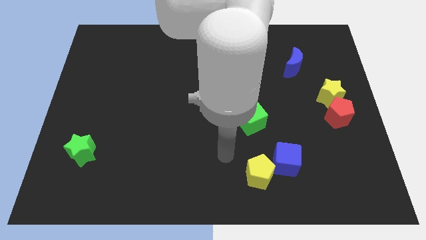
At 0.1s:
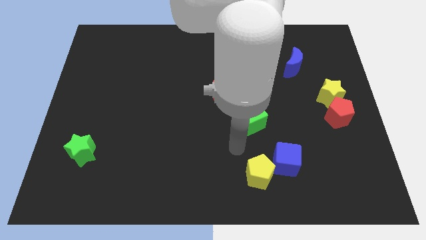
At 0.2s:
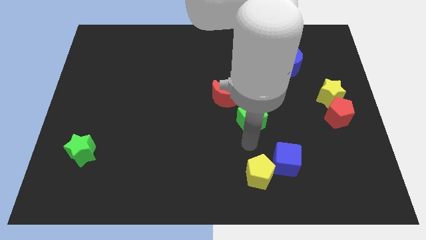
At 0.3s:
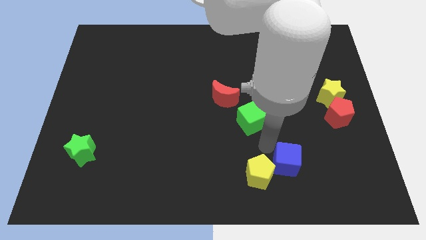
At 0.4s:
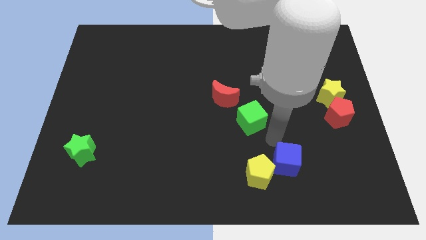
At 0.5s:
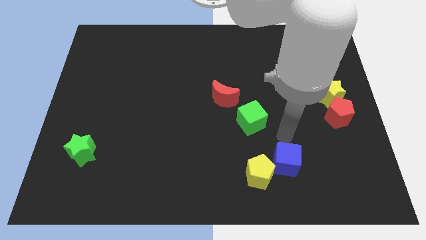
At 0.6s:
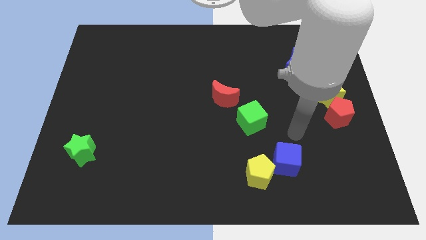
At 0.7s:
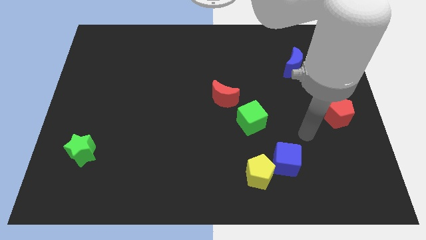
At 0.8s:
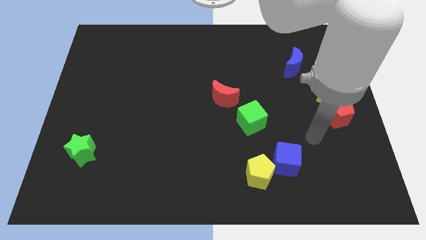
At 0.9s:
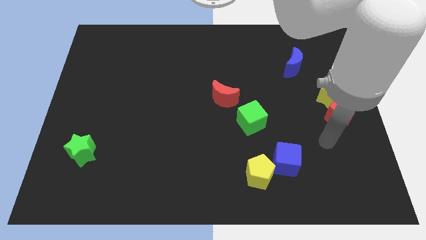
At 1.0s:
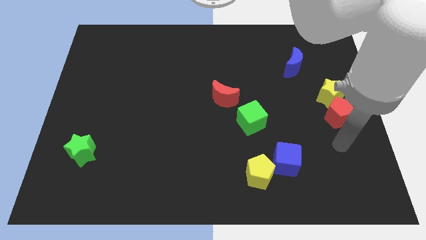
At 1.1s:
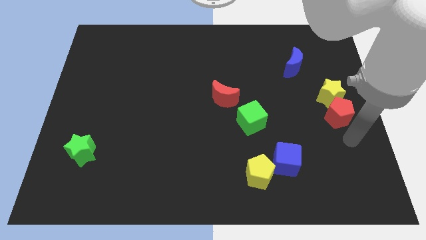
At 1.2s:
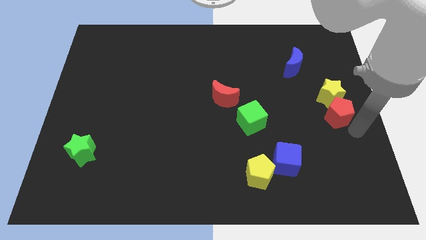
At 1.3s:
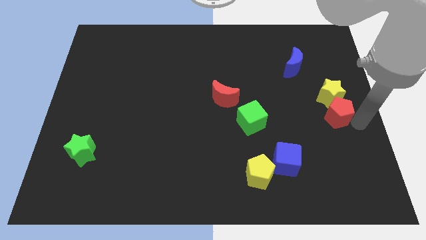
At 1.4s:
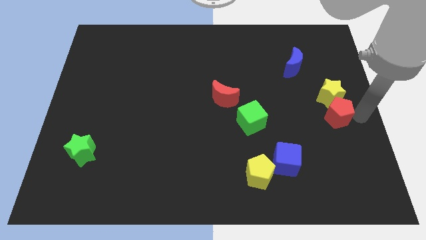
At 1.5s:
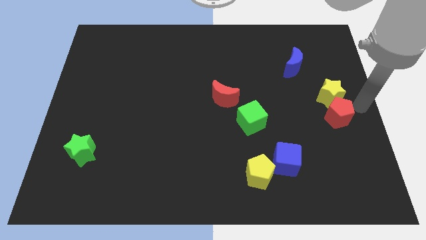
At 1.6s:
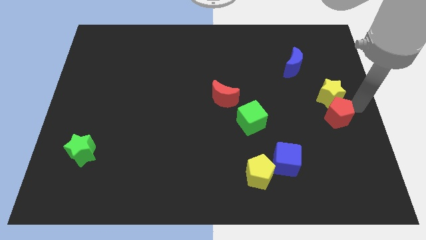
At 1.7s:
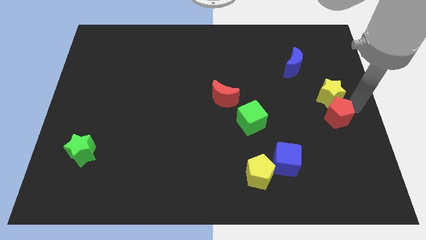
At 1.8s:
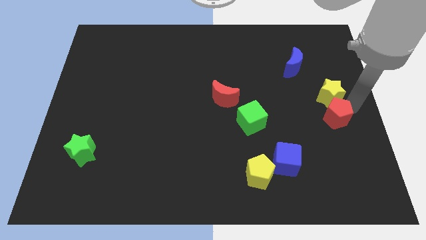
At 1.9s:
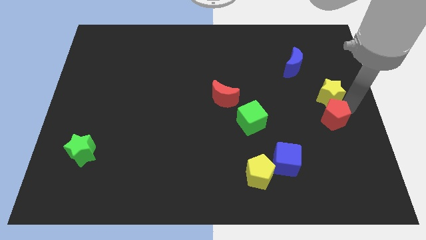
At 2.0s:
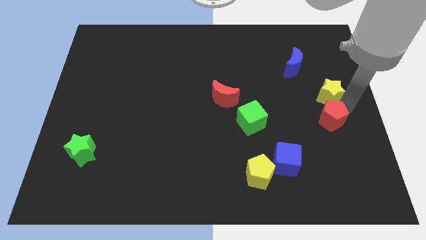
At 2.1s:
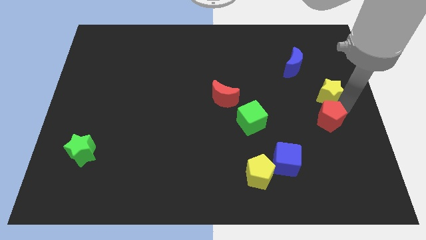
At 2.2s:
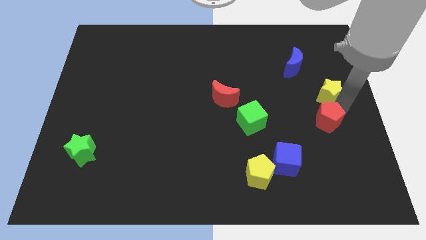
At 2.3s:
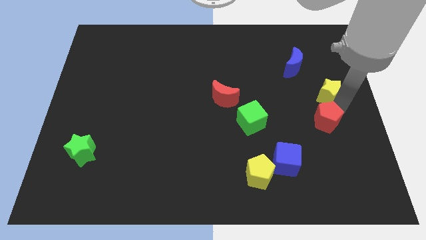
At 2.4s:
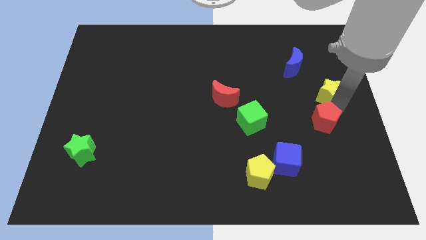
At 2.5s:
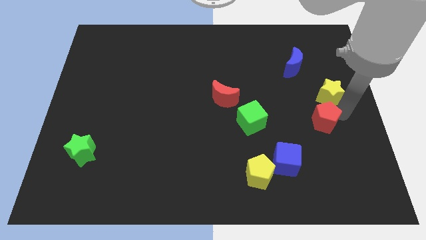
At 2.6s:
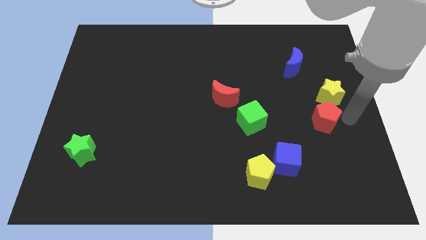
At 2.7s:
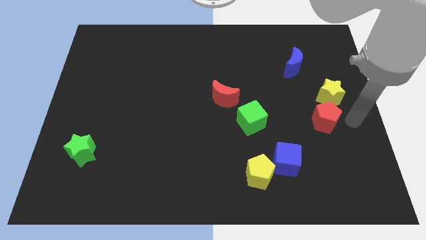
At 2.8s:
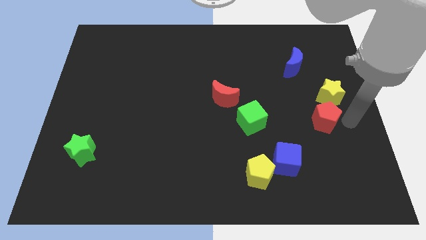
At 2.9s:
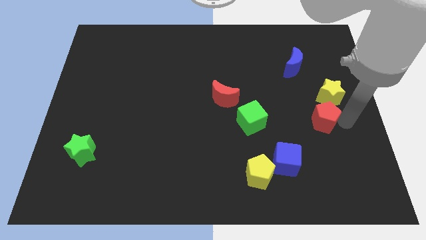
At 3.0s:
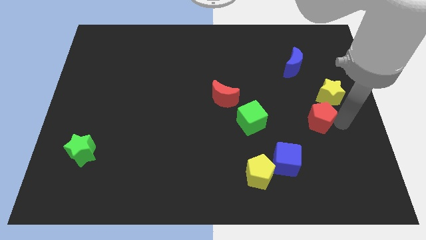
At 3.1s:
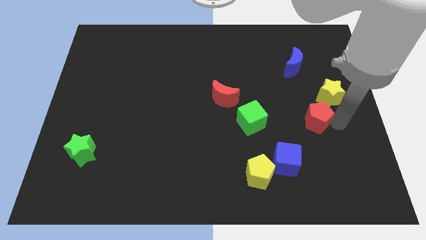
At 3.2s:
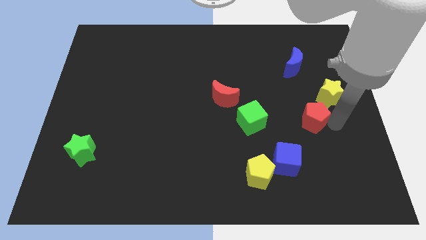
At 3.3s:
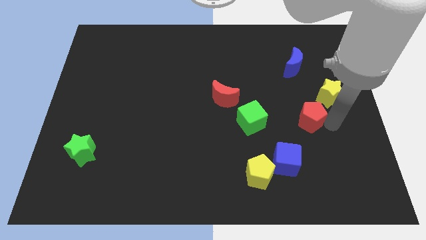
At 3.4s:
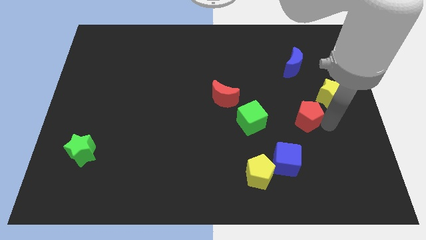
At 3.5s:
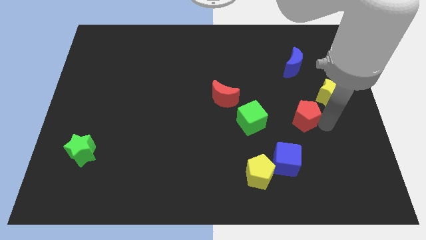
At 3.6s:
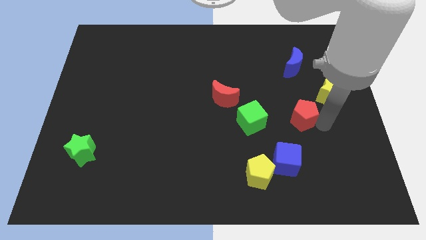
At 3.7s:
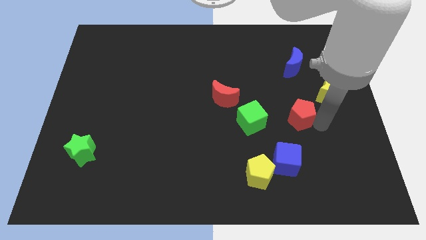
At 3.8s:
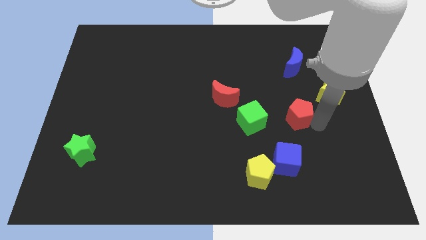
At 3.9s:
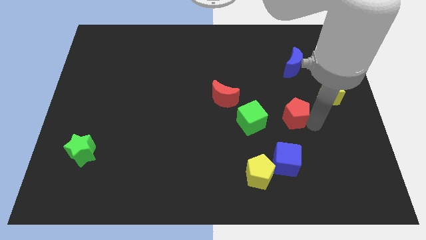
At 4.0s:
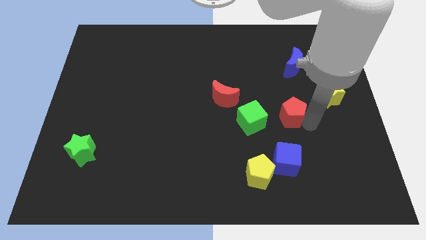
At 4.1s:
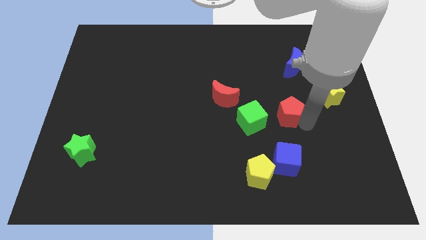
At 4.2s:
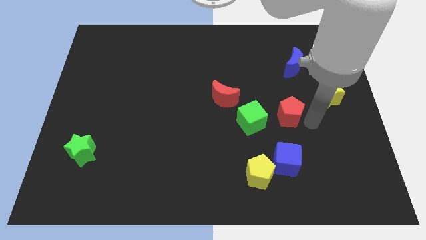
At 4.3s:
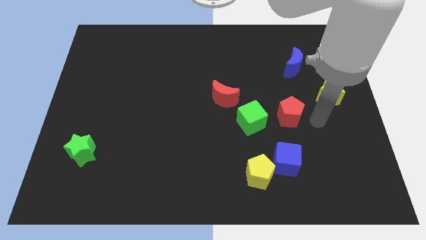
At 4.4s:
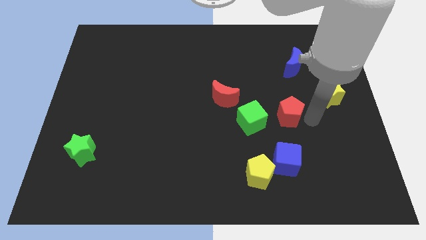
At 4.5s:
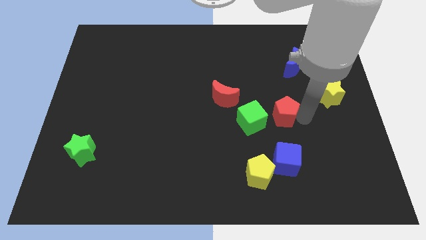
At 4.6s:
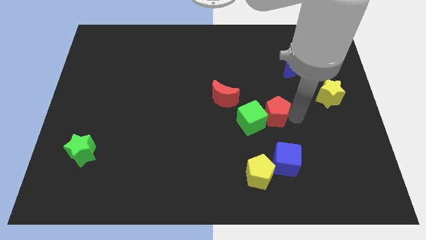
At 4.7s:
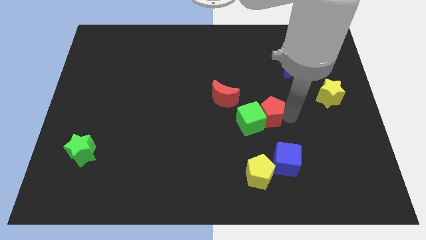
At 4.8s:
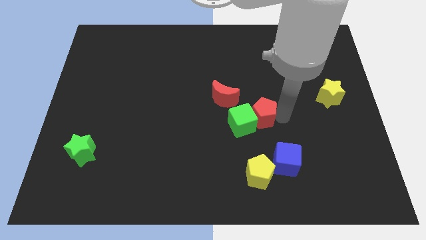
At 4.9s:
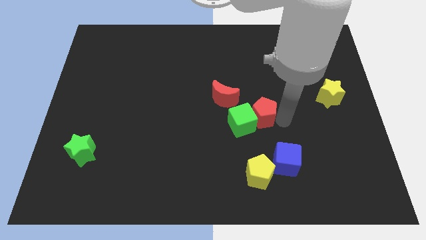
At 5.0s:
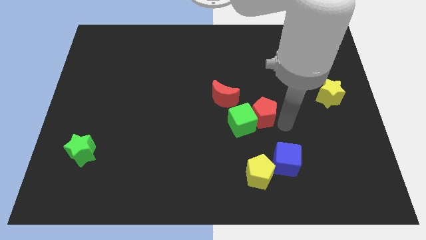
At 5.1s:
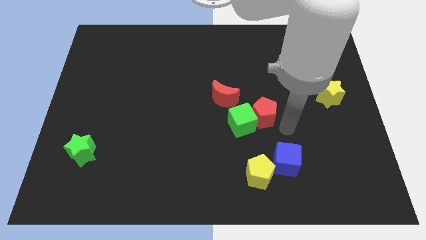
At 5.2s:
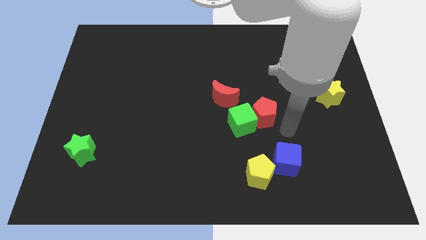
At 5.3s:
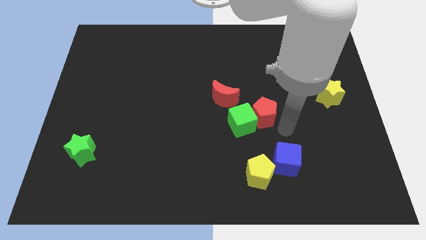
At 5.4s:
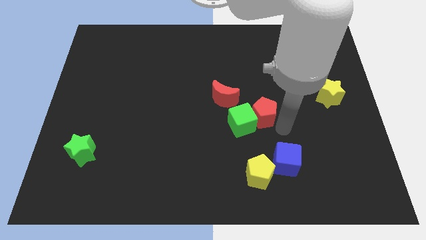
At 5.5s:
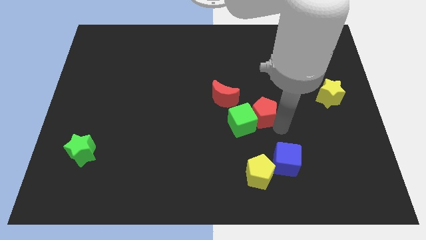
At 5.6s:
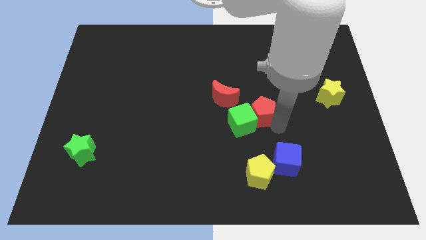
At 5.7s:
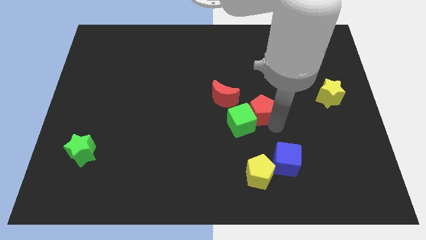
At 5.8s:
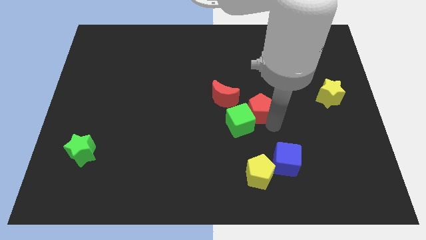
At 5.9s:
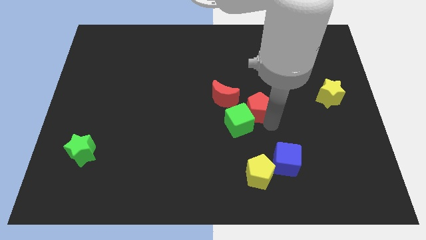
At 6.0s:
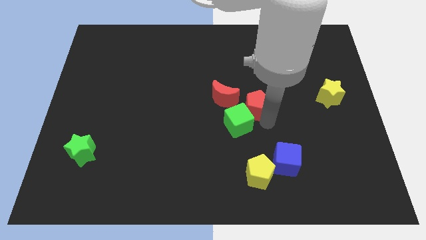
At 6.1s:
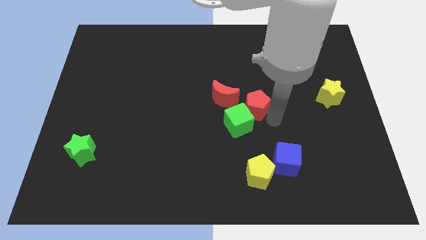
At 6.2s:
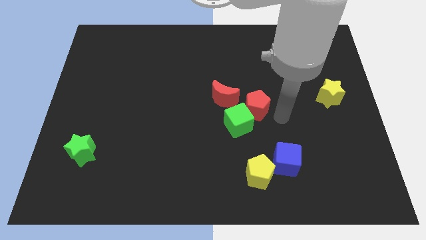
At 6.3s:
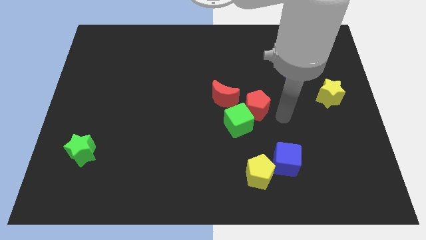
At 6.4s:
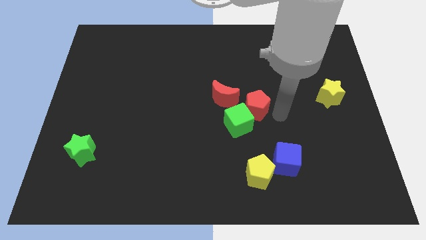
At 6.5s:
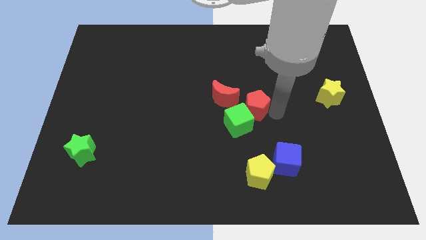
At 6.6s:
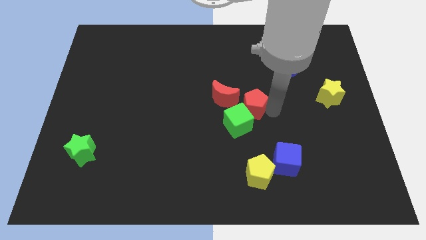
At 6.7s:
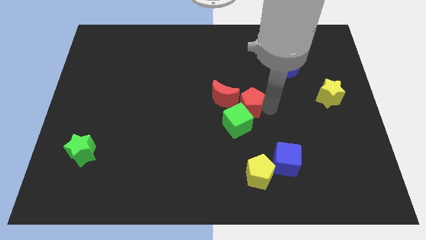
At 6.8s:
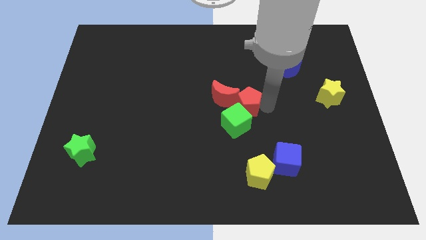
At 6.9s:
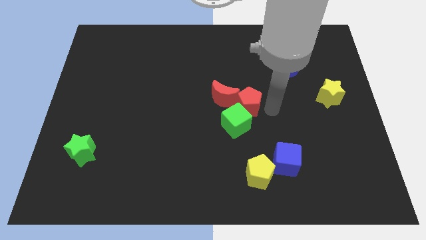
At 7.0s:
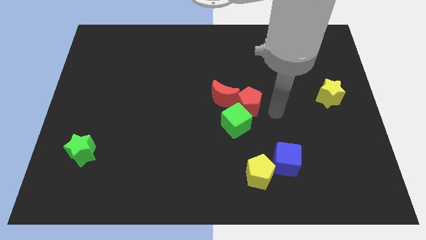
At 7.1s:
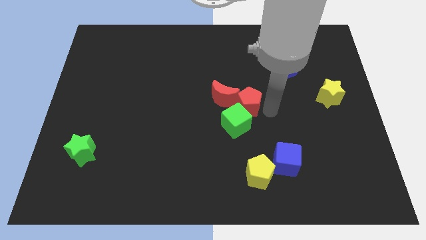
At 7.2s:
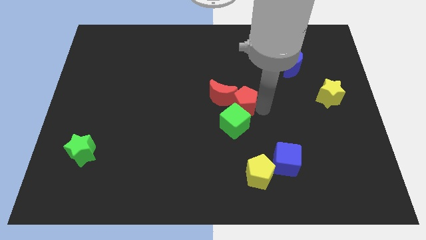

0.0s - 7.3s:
slide the red pentagon towards the red moon
